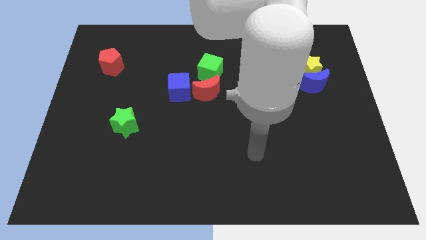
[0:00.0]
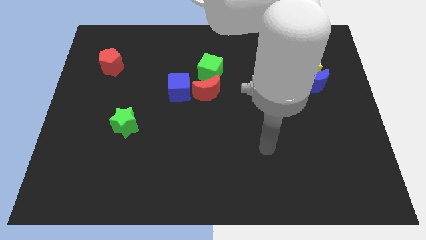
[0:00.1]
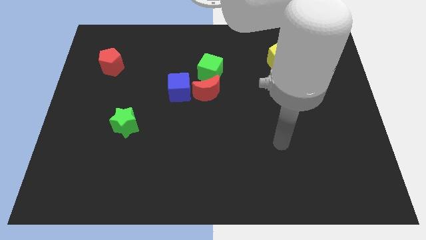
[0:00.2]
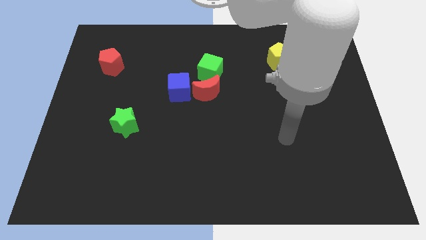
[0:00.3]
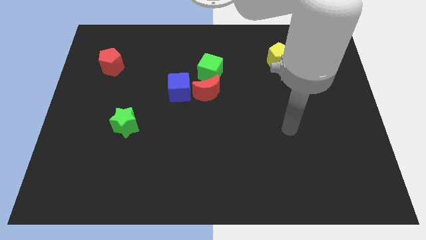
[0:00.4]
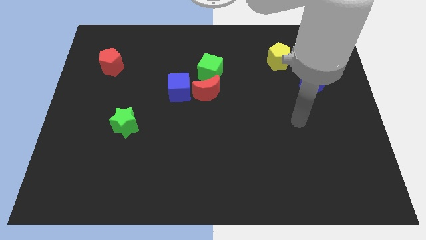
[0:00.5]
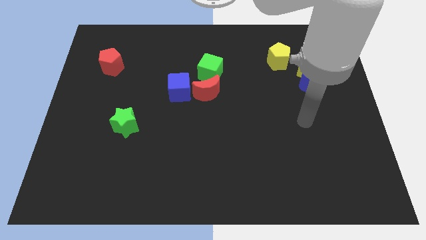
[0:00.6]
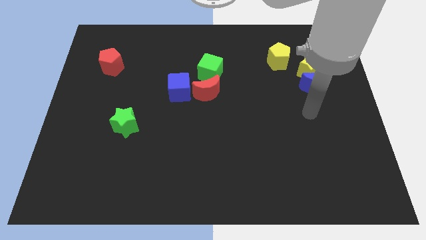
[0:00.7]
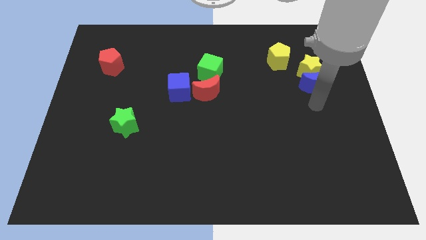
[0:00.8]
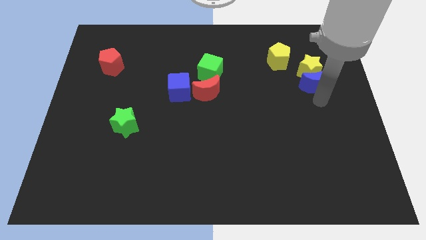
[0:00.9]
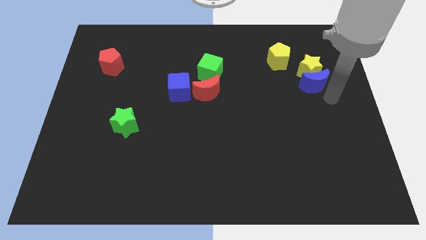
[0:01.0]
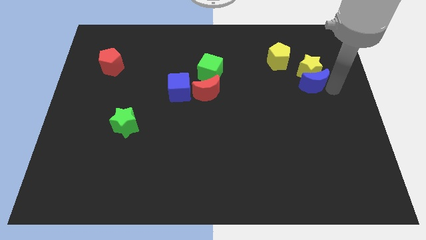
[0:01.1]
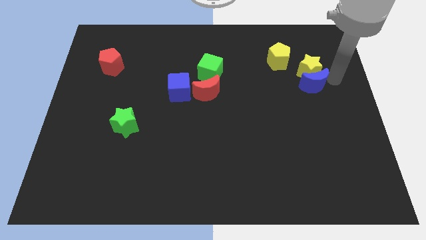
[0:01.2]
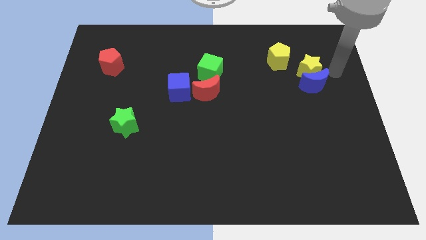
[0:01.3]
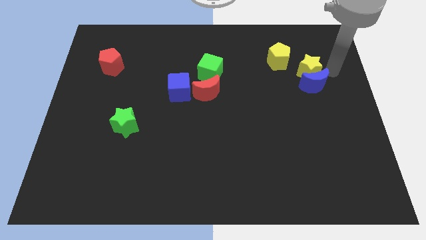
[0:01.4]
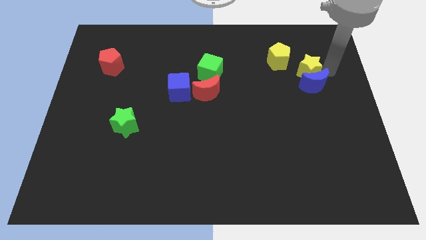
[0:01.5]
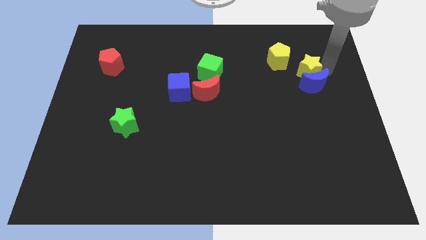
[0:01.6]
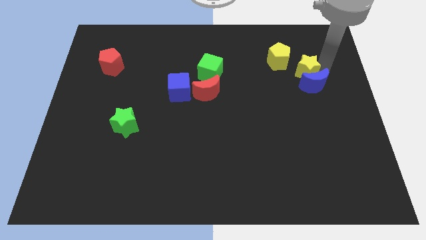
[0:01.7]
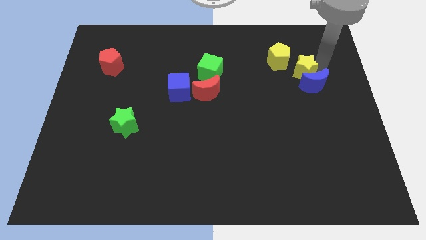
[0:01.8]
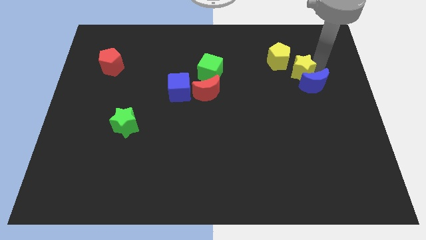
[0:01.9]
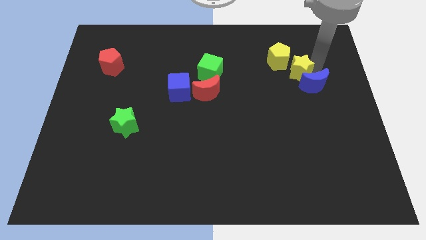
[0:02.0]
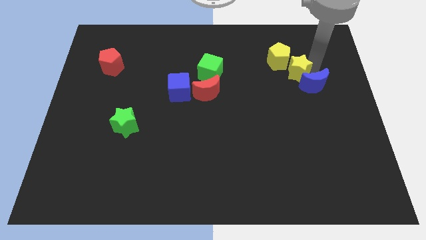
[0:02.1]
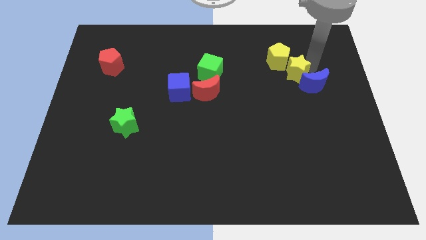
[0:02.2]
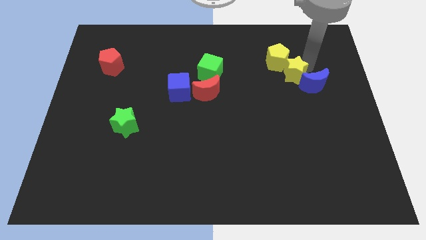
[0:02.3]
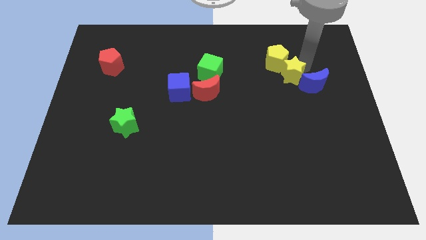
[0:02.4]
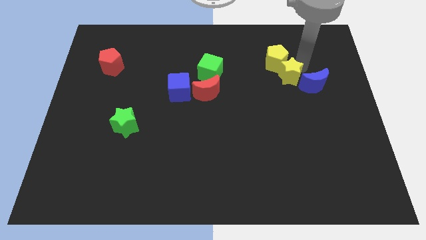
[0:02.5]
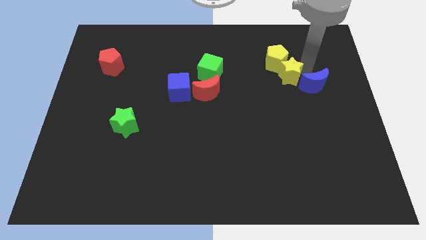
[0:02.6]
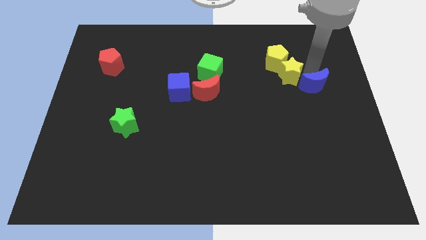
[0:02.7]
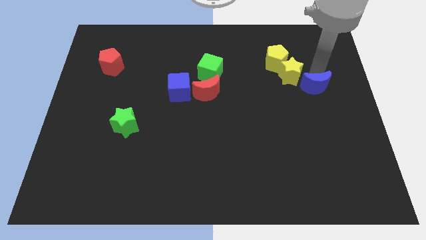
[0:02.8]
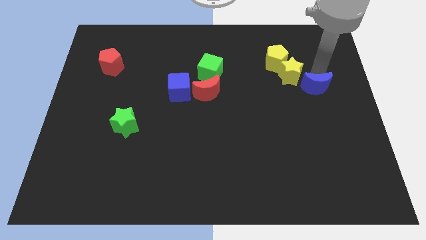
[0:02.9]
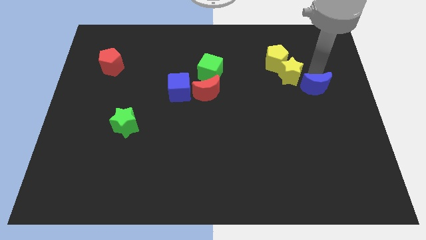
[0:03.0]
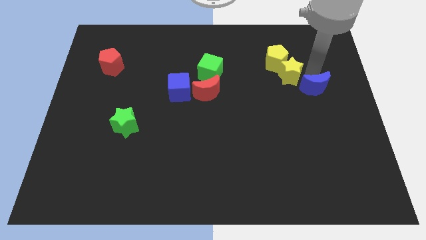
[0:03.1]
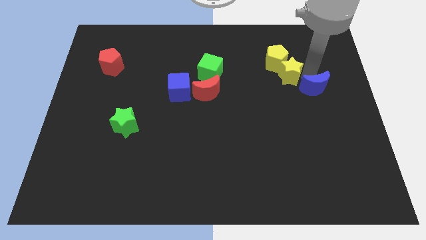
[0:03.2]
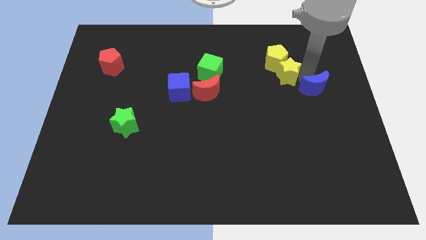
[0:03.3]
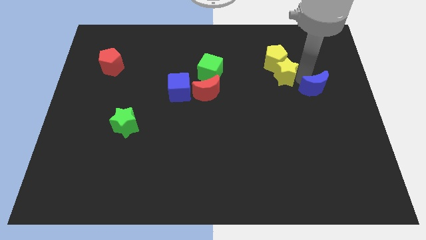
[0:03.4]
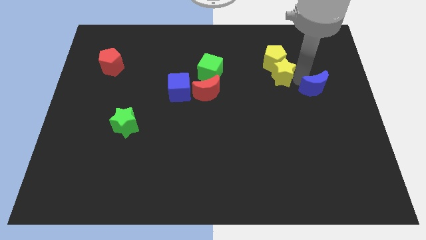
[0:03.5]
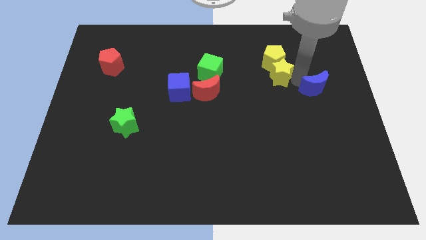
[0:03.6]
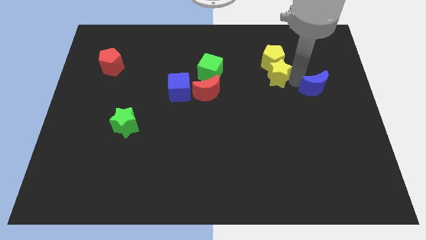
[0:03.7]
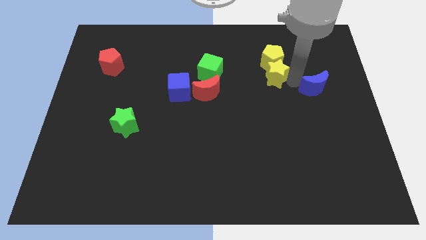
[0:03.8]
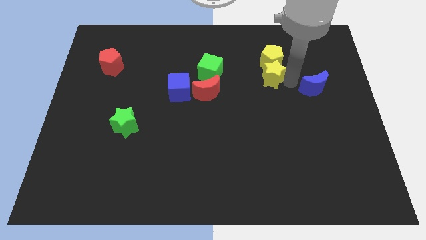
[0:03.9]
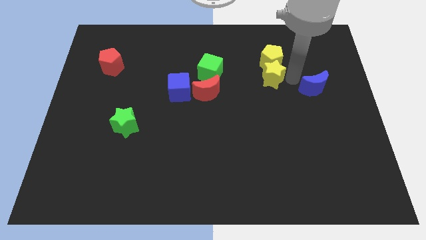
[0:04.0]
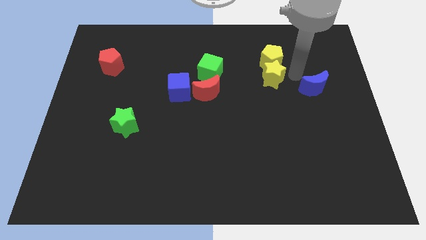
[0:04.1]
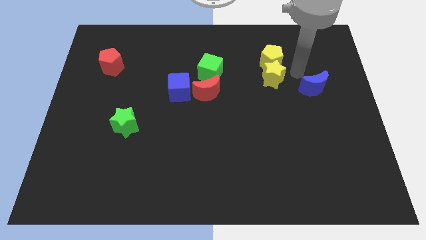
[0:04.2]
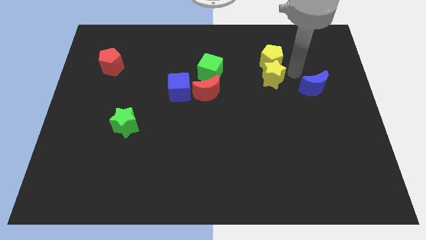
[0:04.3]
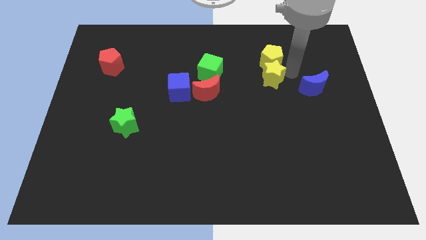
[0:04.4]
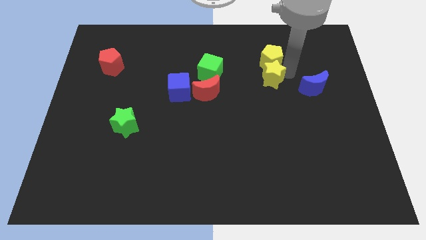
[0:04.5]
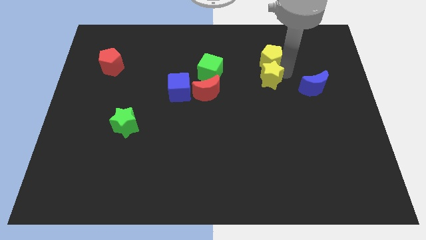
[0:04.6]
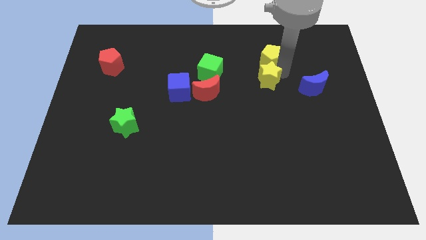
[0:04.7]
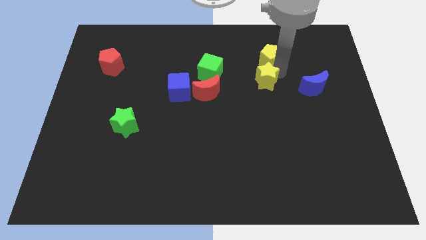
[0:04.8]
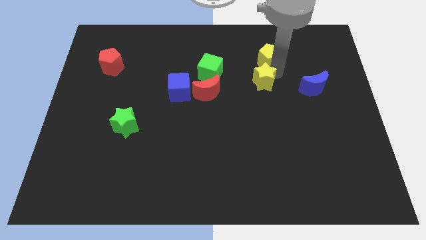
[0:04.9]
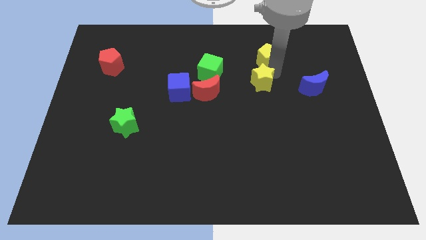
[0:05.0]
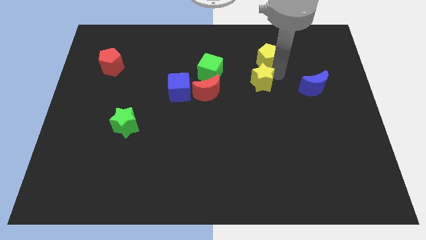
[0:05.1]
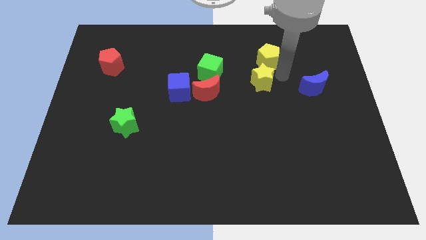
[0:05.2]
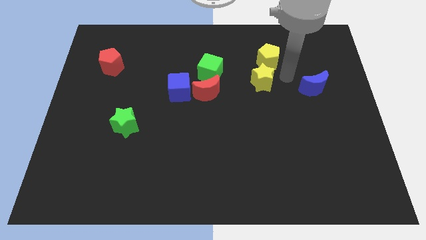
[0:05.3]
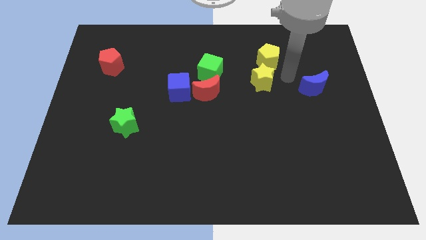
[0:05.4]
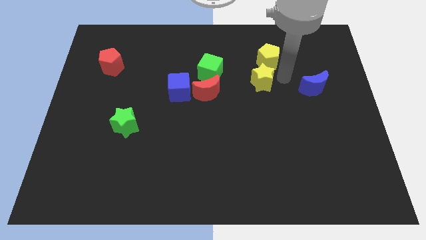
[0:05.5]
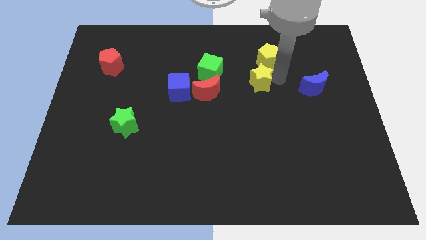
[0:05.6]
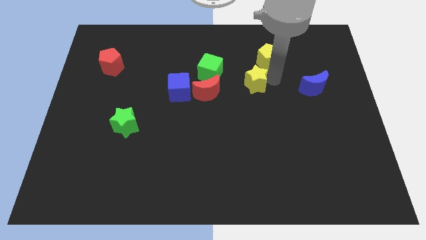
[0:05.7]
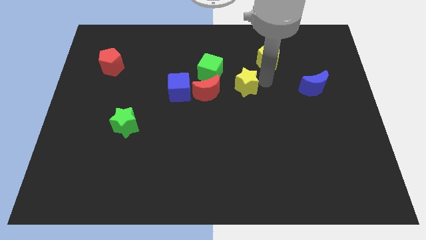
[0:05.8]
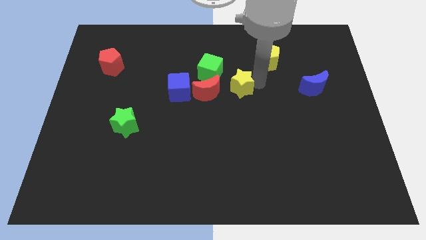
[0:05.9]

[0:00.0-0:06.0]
move the yellow star just right of the blue cube

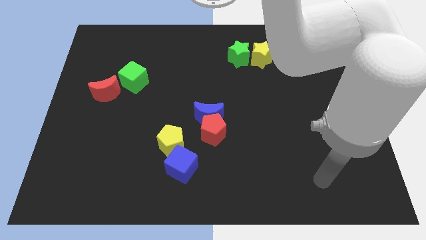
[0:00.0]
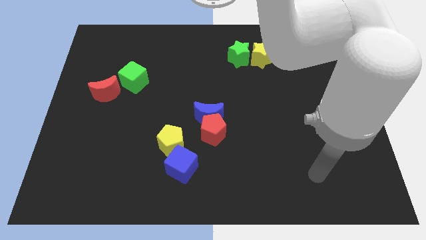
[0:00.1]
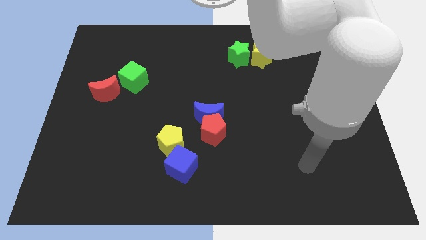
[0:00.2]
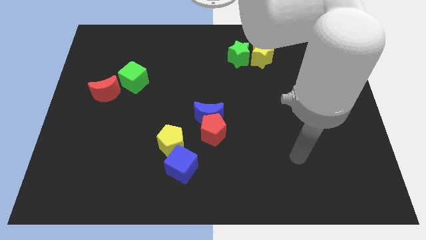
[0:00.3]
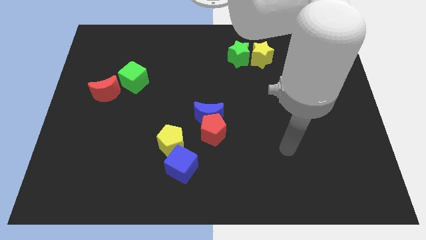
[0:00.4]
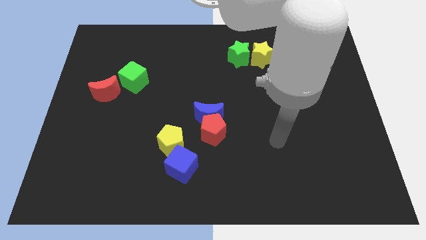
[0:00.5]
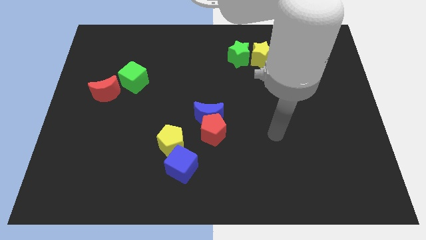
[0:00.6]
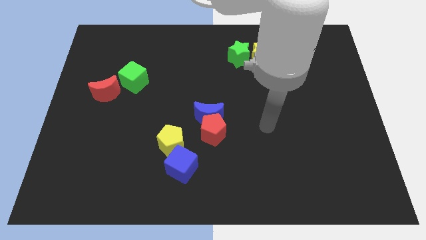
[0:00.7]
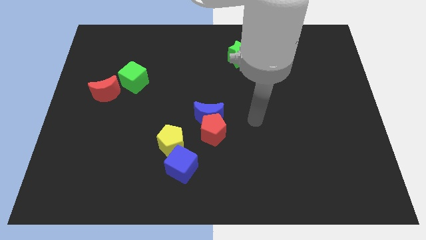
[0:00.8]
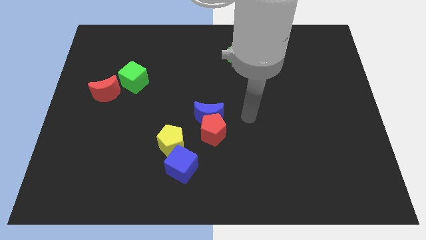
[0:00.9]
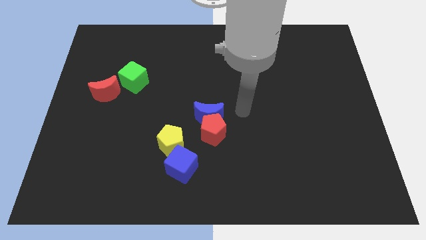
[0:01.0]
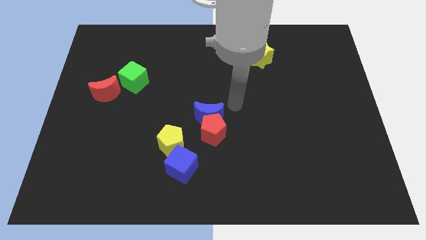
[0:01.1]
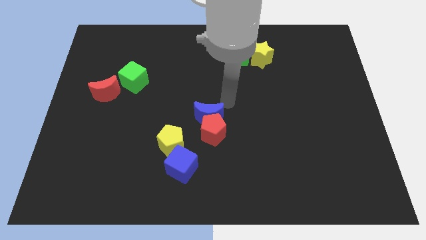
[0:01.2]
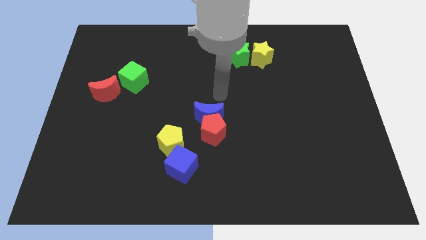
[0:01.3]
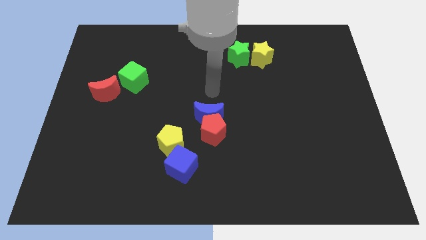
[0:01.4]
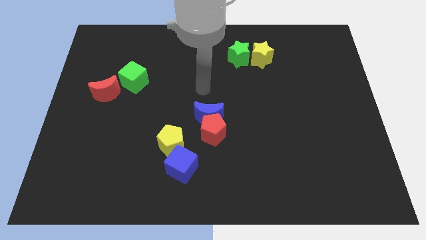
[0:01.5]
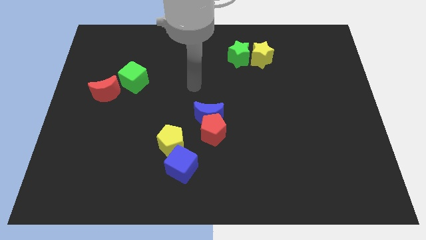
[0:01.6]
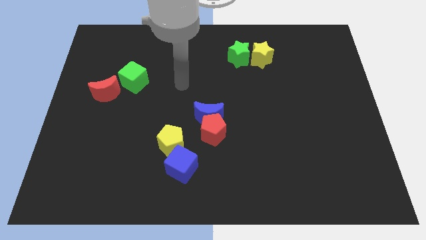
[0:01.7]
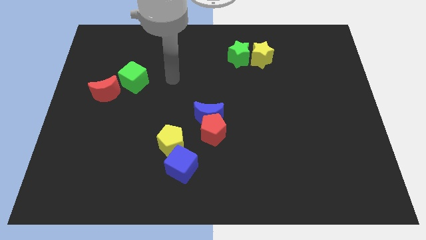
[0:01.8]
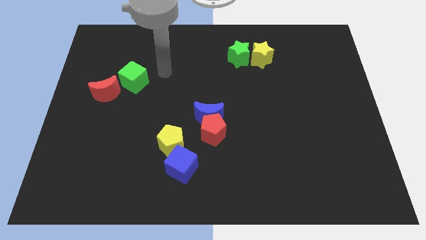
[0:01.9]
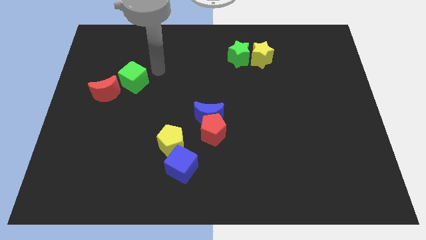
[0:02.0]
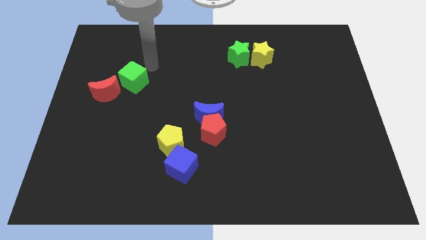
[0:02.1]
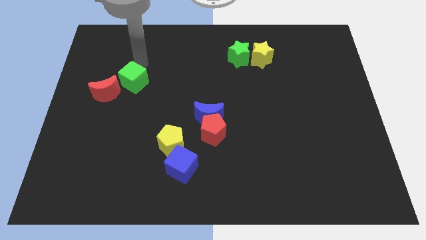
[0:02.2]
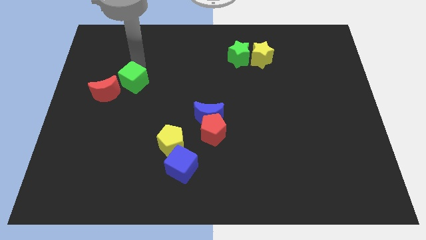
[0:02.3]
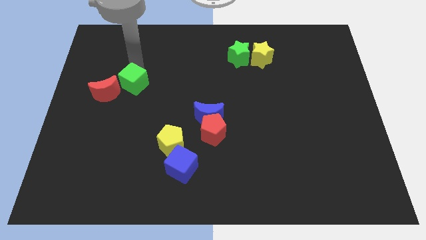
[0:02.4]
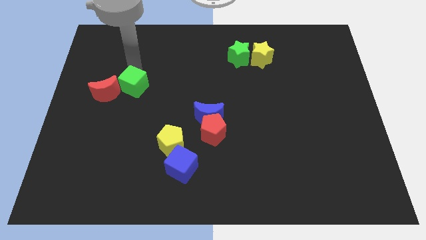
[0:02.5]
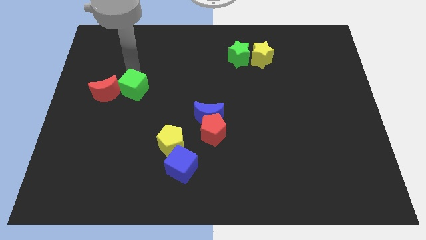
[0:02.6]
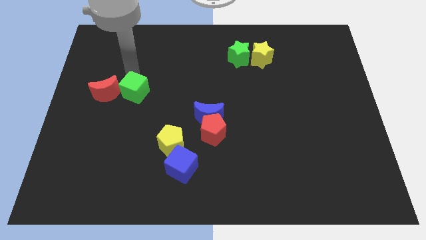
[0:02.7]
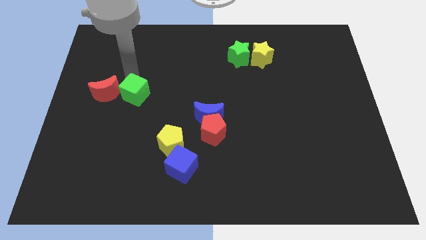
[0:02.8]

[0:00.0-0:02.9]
move the green cube to the bottom right of the red moon
